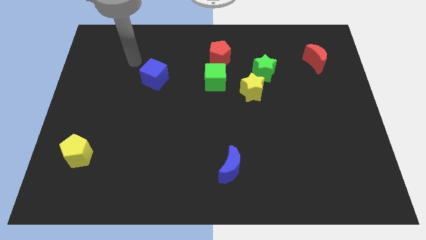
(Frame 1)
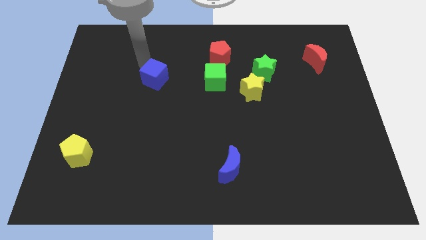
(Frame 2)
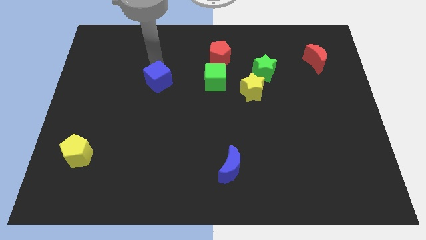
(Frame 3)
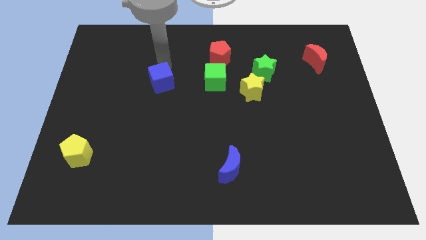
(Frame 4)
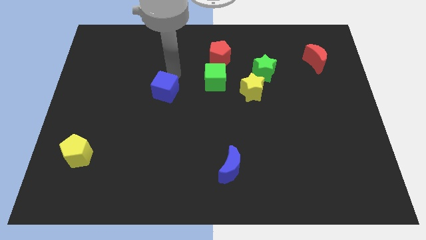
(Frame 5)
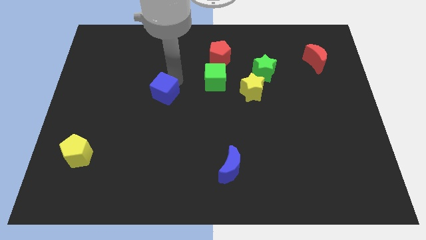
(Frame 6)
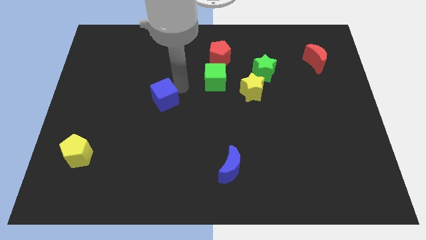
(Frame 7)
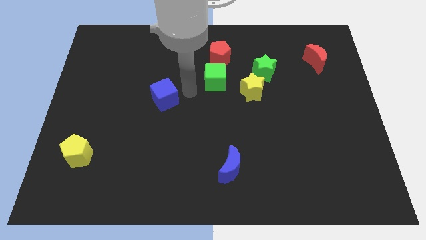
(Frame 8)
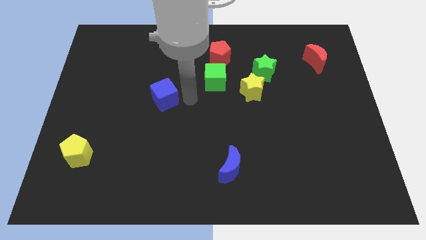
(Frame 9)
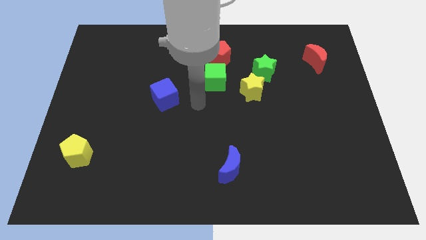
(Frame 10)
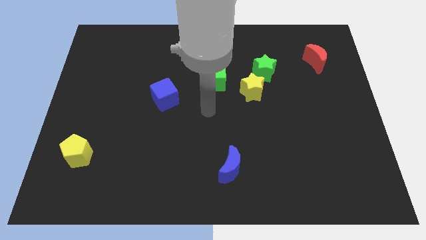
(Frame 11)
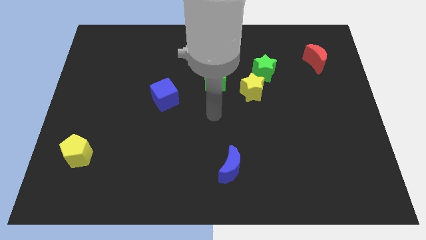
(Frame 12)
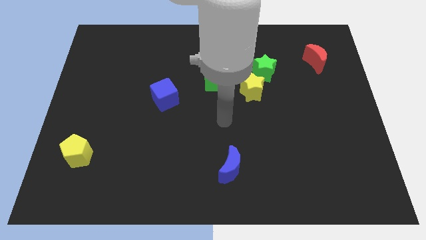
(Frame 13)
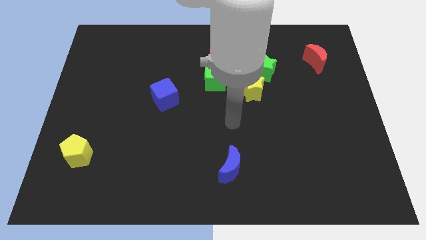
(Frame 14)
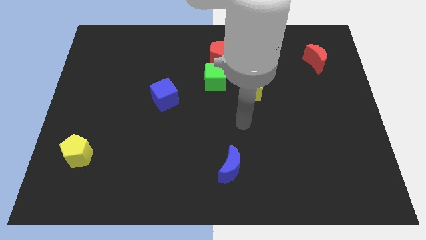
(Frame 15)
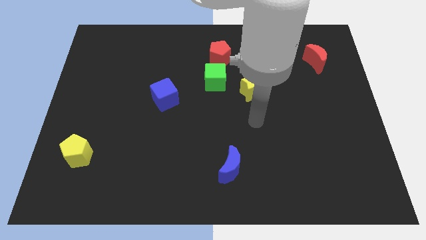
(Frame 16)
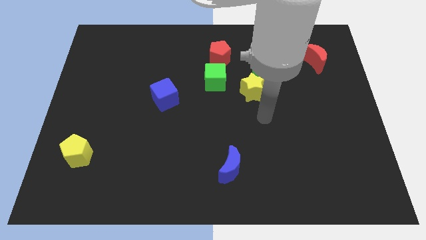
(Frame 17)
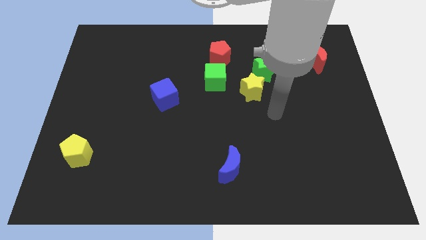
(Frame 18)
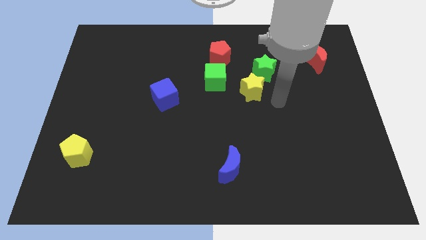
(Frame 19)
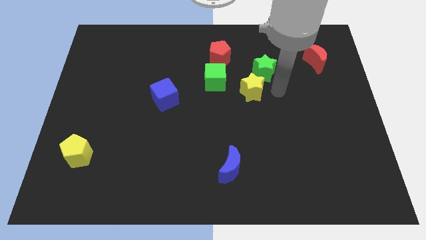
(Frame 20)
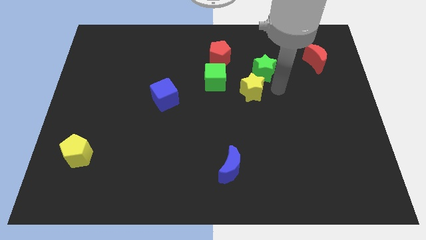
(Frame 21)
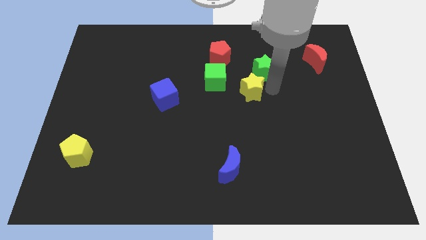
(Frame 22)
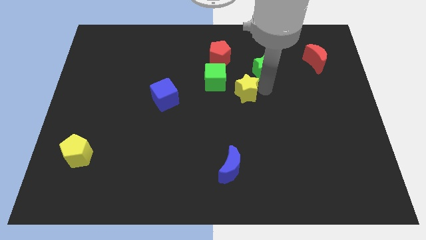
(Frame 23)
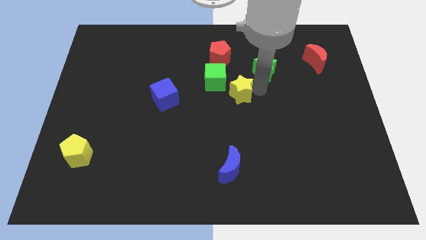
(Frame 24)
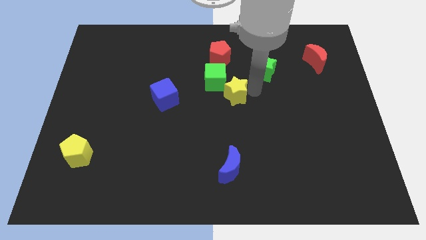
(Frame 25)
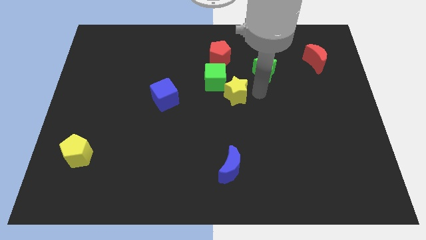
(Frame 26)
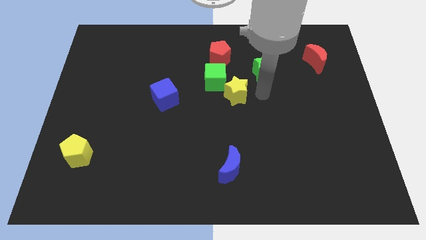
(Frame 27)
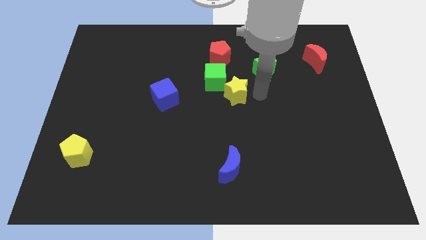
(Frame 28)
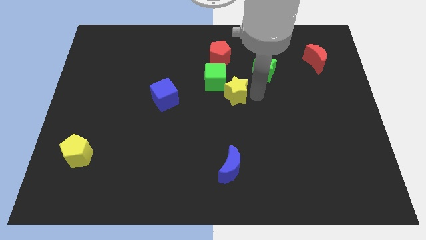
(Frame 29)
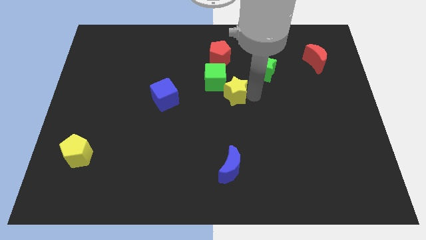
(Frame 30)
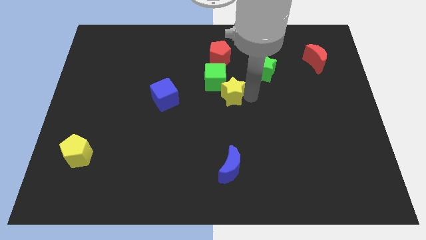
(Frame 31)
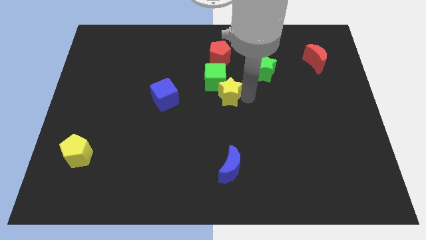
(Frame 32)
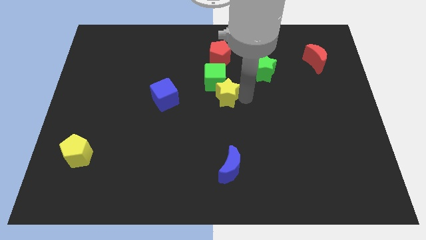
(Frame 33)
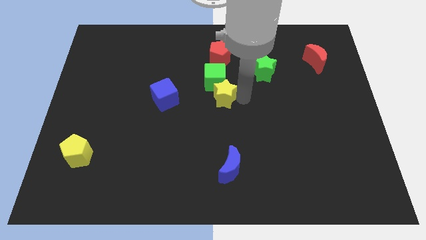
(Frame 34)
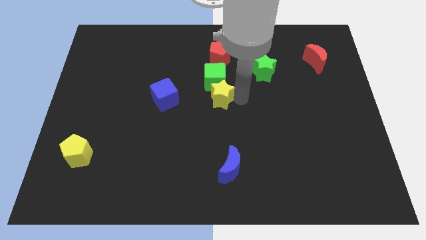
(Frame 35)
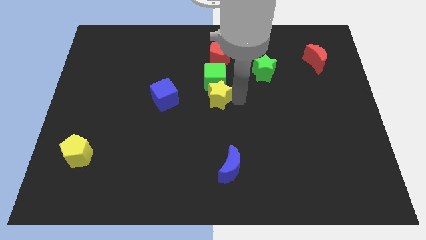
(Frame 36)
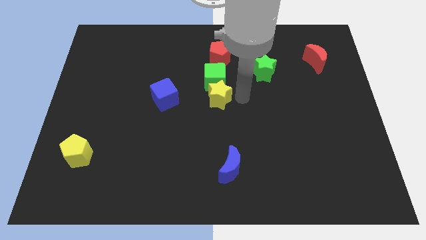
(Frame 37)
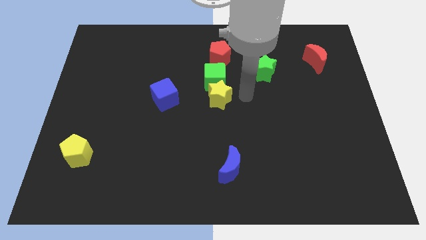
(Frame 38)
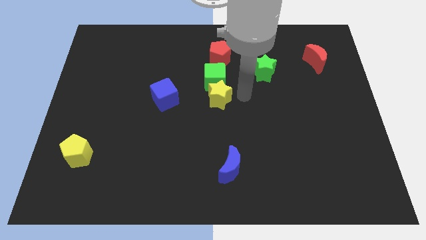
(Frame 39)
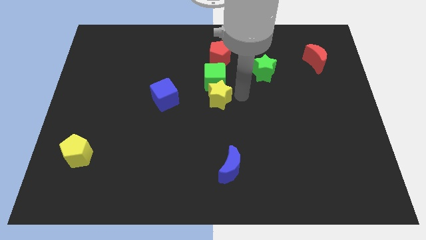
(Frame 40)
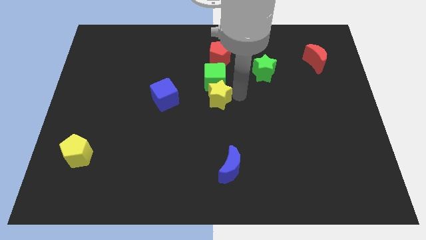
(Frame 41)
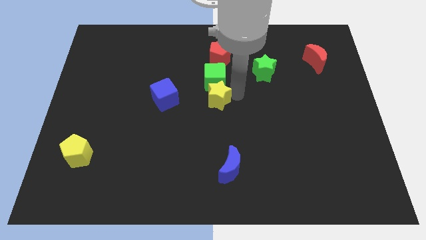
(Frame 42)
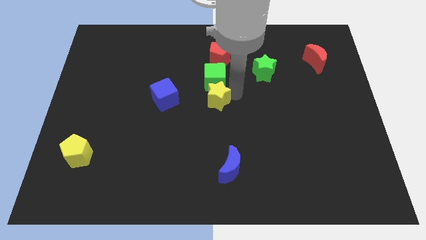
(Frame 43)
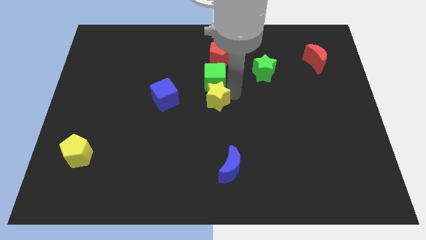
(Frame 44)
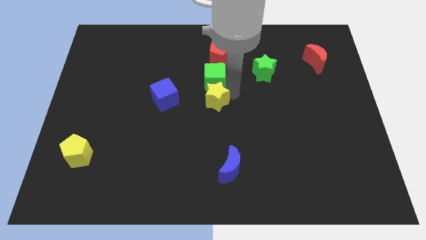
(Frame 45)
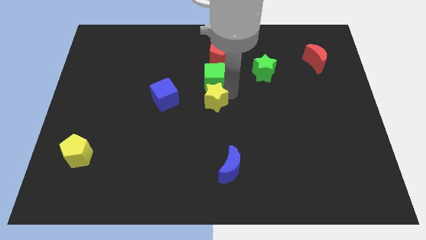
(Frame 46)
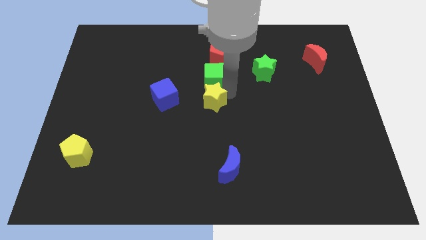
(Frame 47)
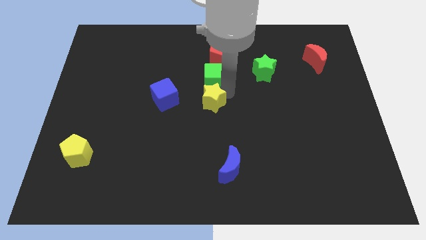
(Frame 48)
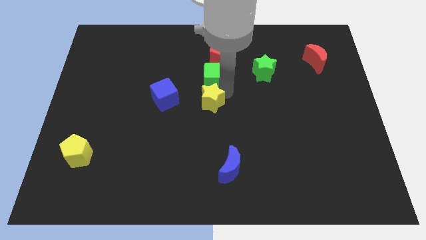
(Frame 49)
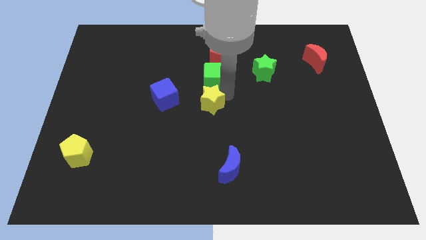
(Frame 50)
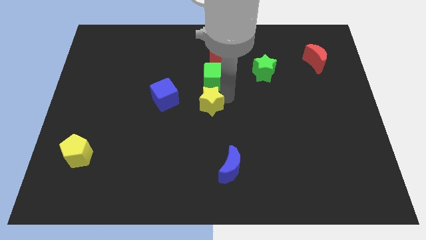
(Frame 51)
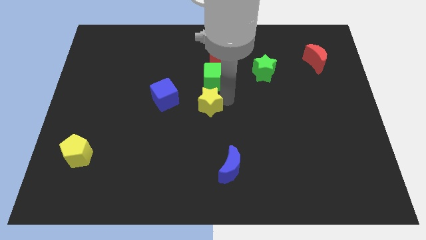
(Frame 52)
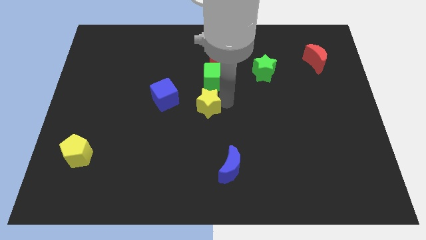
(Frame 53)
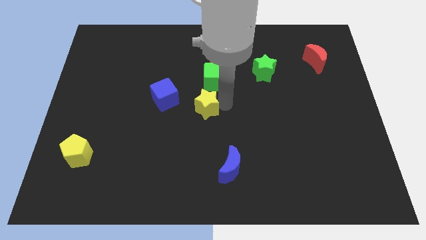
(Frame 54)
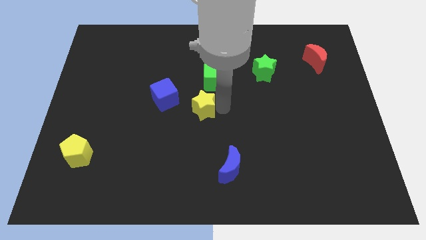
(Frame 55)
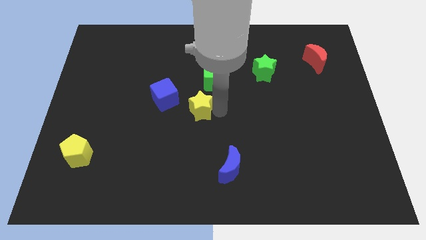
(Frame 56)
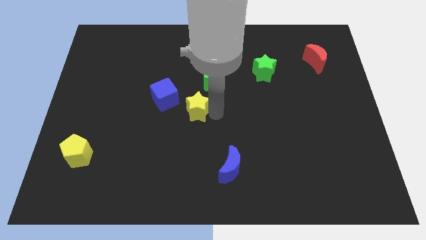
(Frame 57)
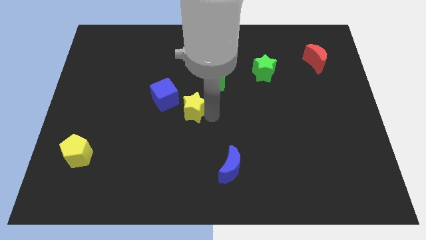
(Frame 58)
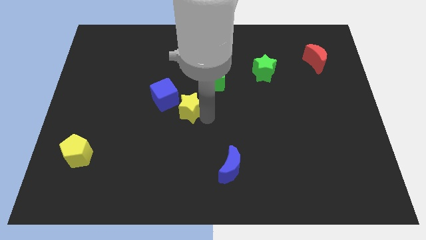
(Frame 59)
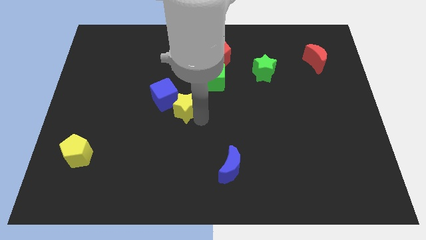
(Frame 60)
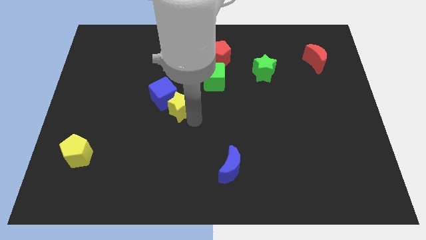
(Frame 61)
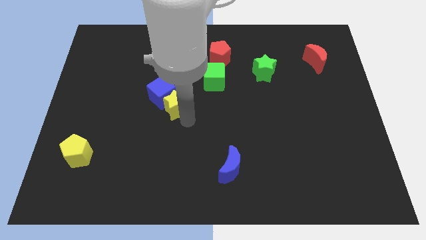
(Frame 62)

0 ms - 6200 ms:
slide the yellow star to the right side of the blue cube

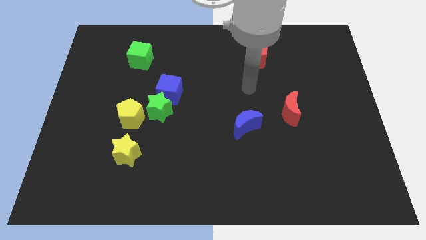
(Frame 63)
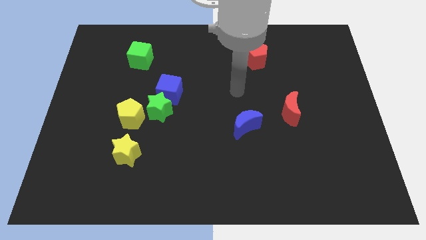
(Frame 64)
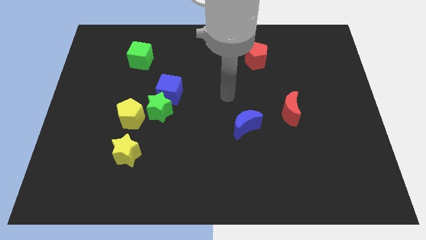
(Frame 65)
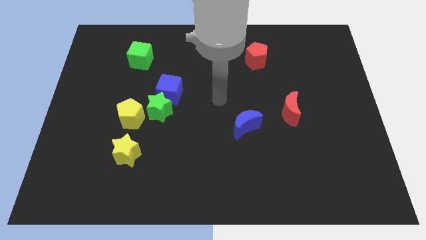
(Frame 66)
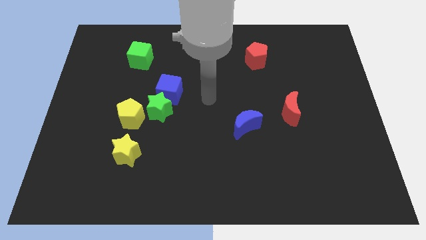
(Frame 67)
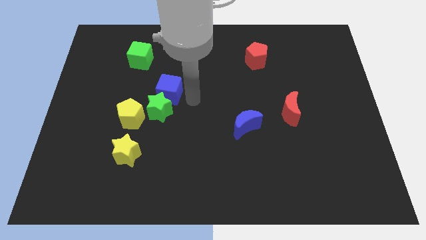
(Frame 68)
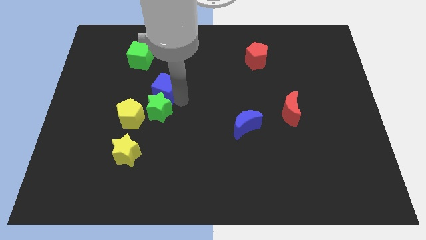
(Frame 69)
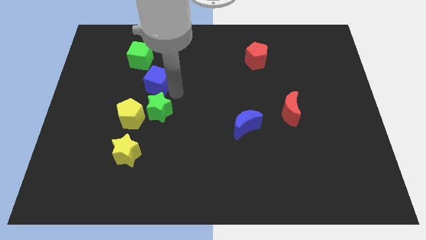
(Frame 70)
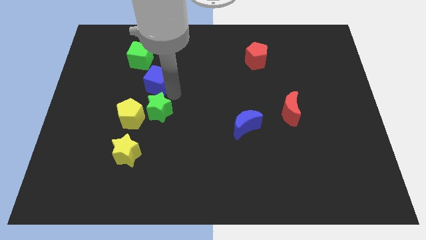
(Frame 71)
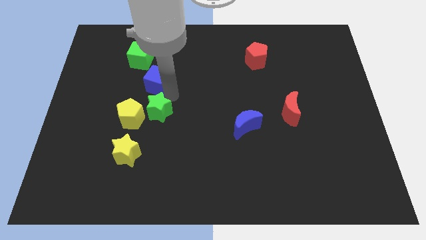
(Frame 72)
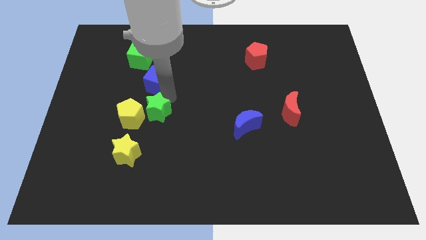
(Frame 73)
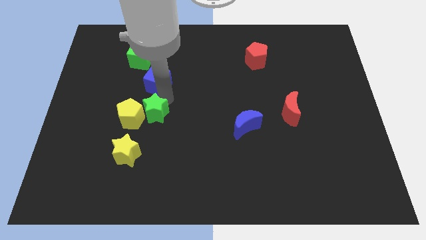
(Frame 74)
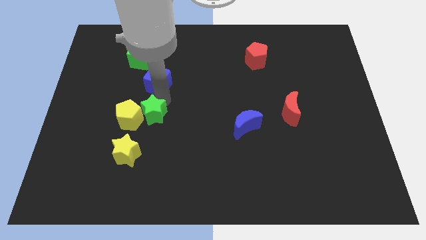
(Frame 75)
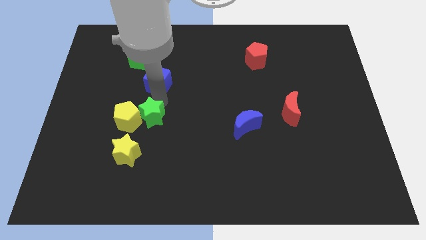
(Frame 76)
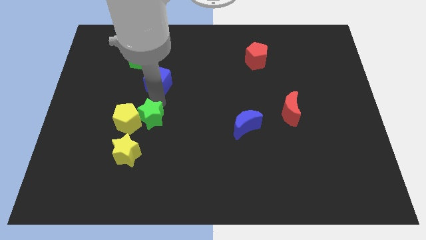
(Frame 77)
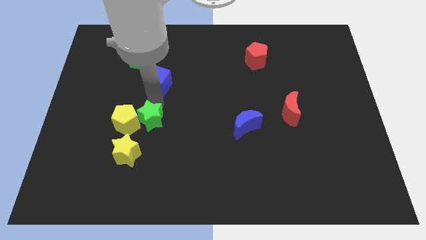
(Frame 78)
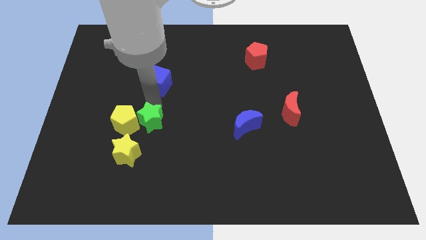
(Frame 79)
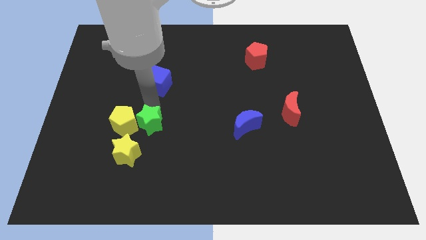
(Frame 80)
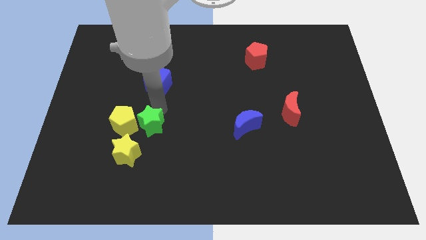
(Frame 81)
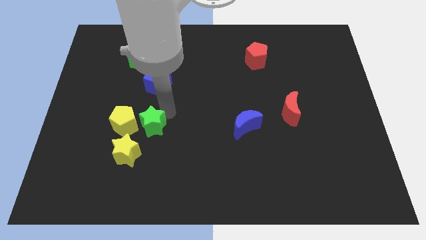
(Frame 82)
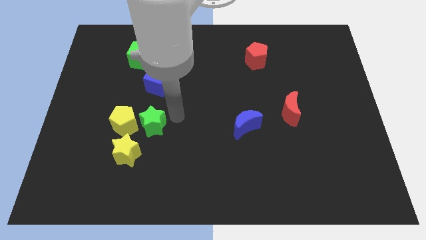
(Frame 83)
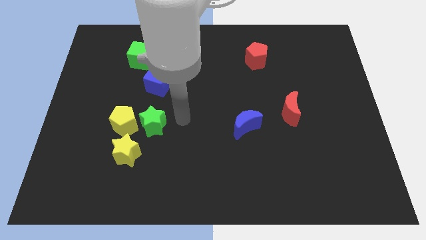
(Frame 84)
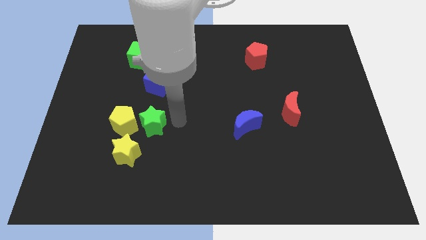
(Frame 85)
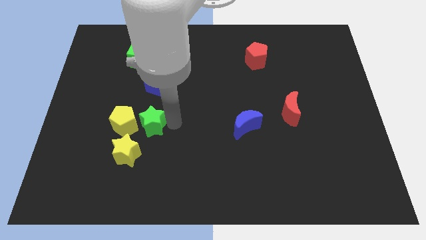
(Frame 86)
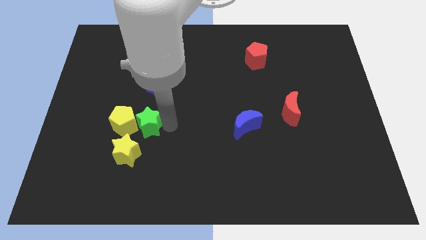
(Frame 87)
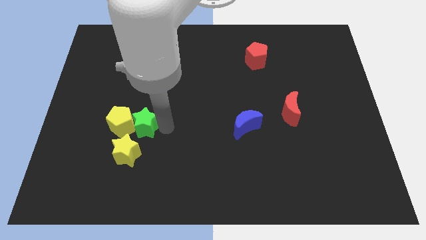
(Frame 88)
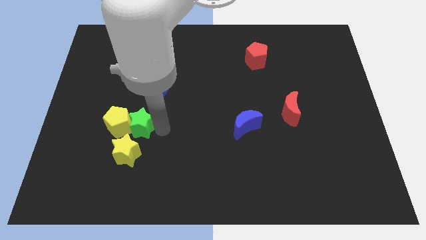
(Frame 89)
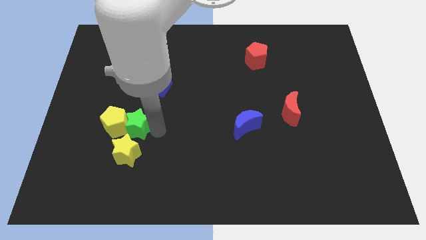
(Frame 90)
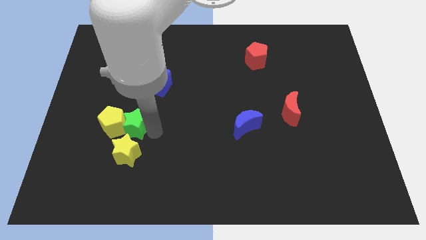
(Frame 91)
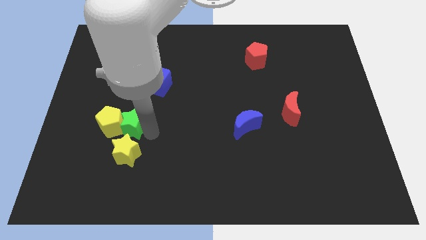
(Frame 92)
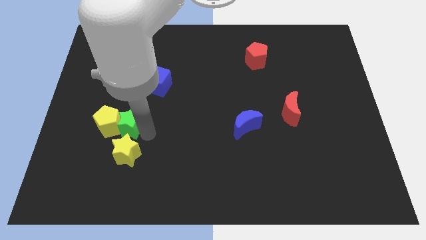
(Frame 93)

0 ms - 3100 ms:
move the green star to the top left of the yellow star
